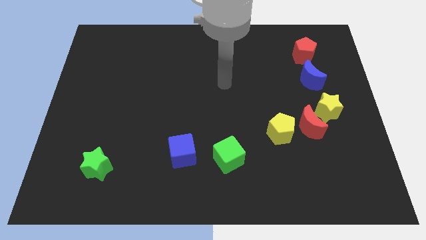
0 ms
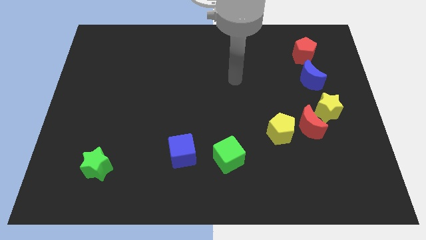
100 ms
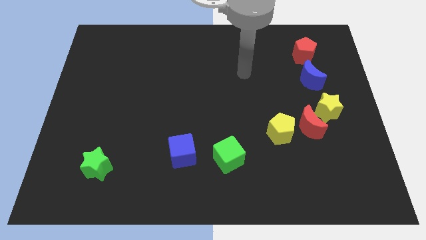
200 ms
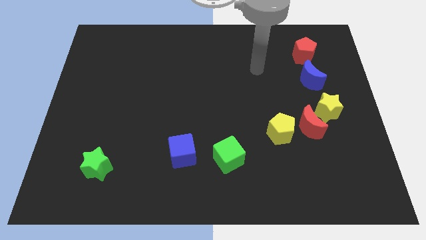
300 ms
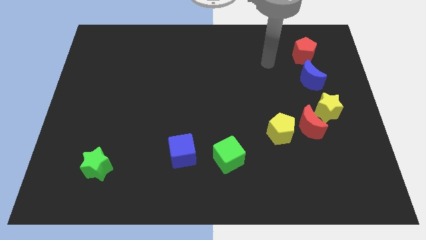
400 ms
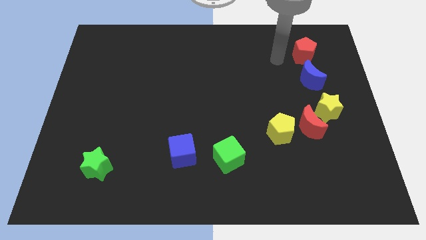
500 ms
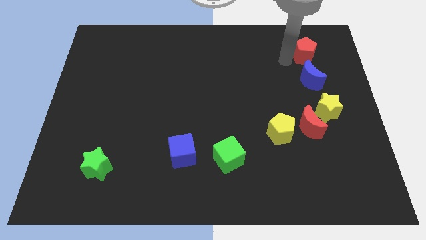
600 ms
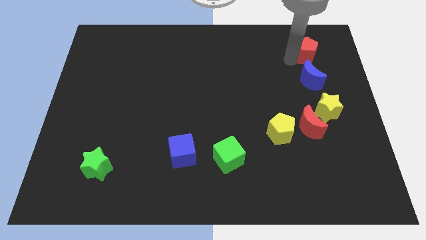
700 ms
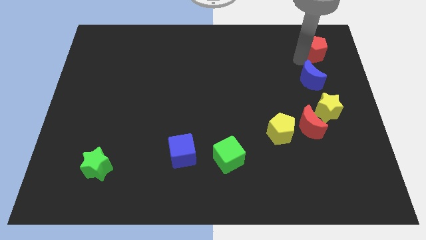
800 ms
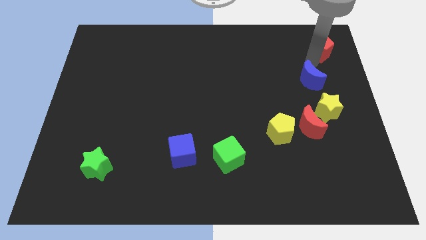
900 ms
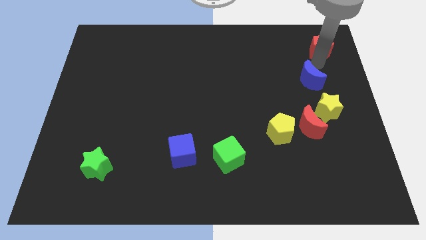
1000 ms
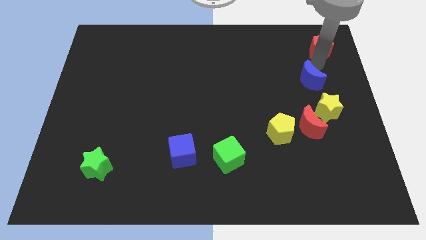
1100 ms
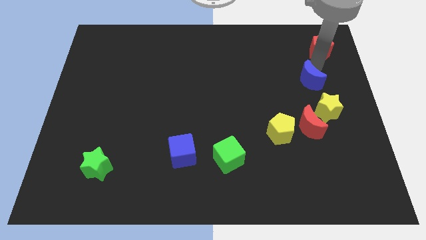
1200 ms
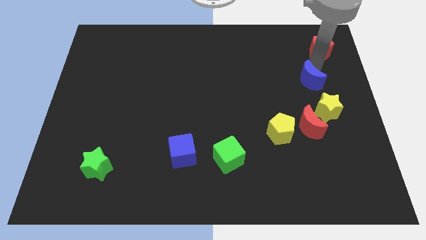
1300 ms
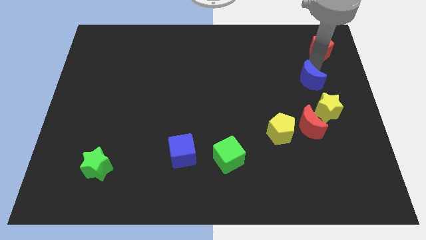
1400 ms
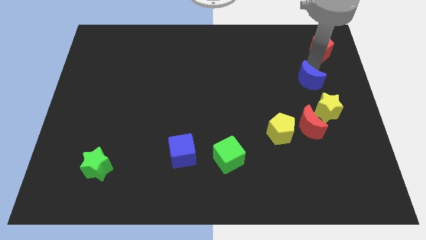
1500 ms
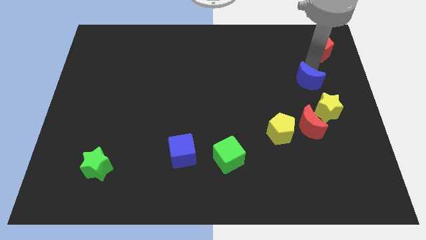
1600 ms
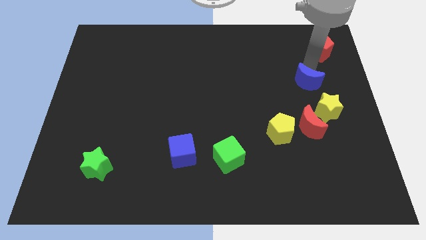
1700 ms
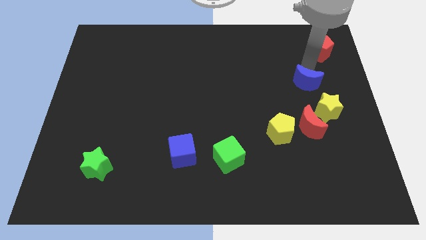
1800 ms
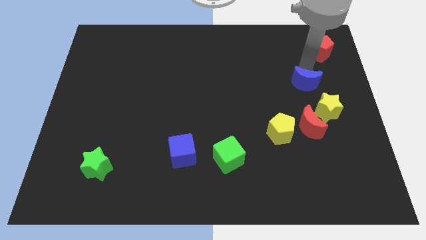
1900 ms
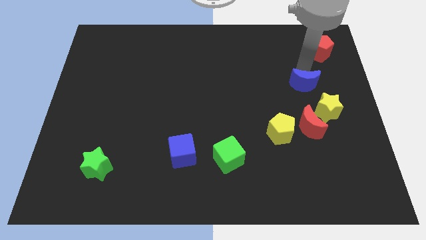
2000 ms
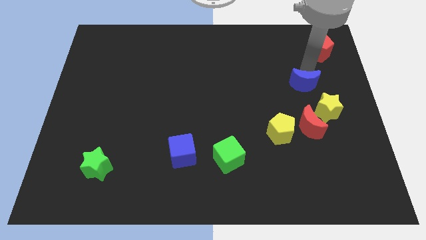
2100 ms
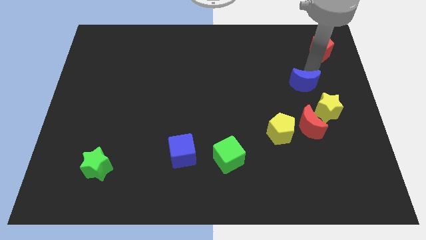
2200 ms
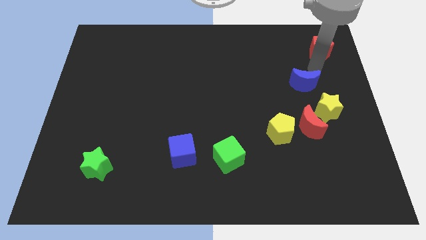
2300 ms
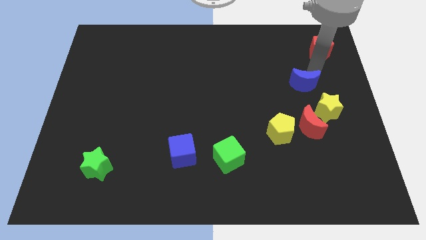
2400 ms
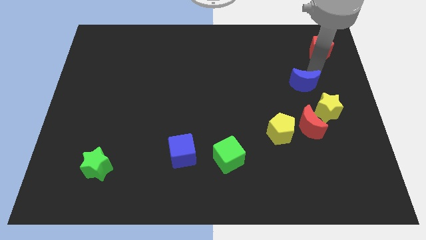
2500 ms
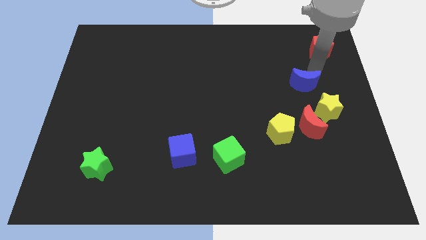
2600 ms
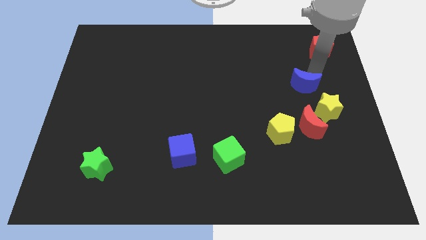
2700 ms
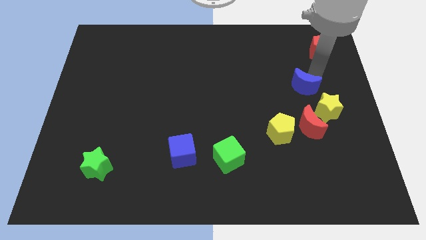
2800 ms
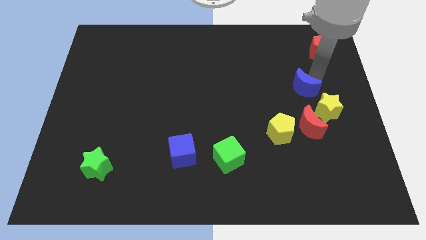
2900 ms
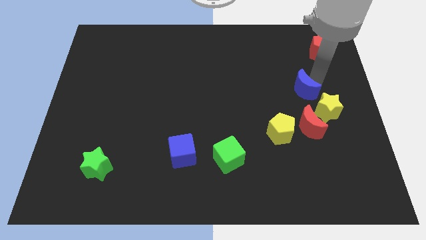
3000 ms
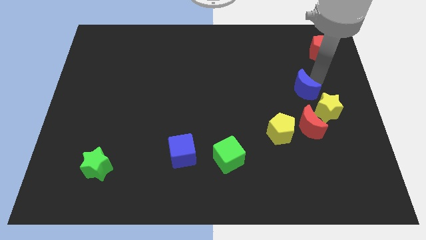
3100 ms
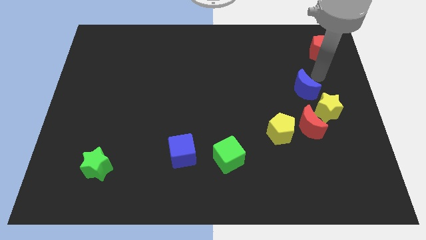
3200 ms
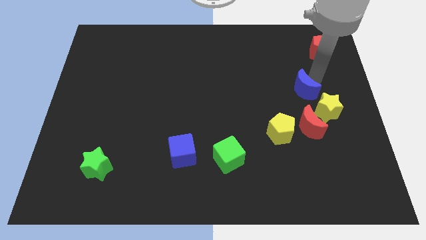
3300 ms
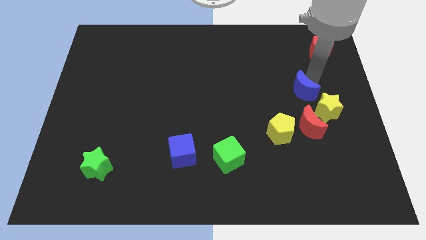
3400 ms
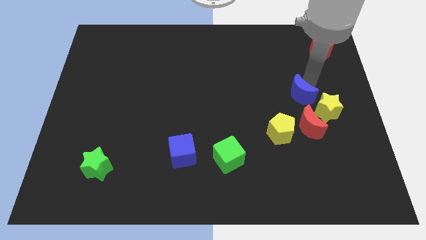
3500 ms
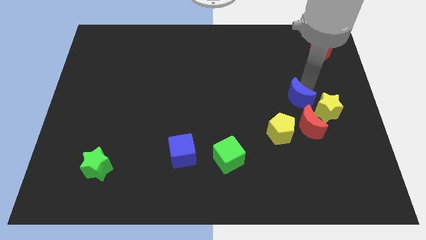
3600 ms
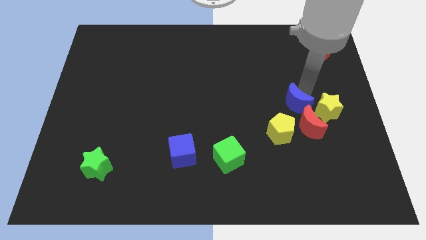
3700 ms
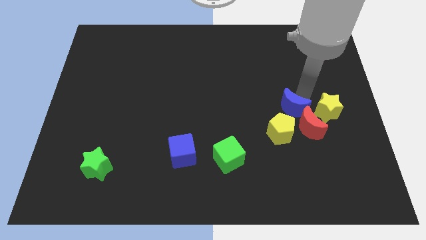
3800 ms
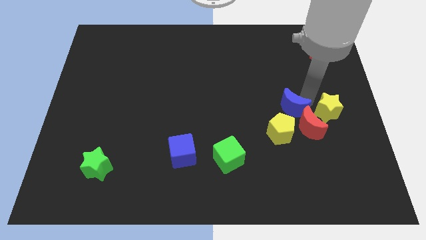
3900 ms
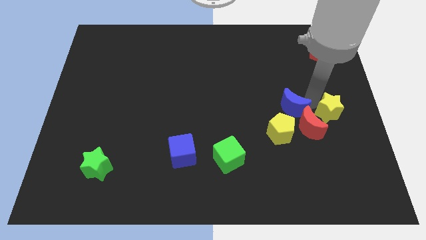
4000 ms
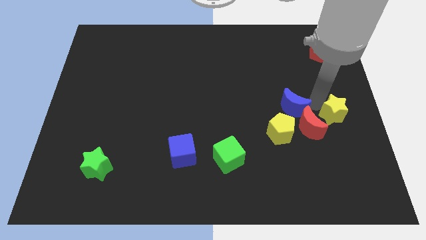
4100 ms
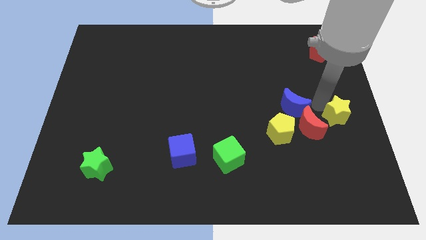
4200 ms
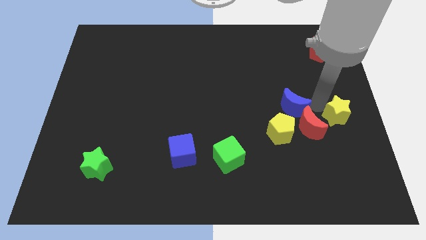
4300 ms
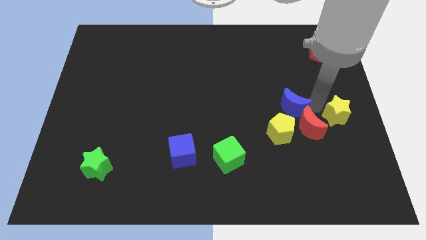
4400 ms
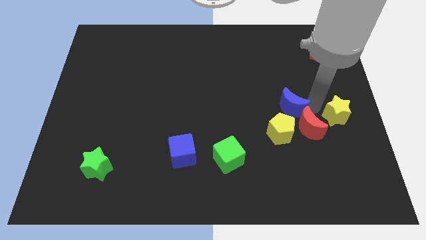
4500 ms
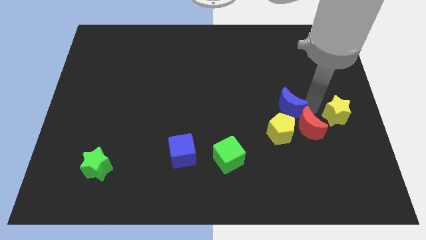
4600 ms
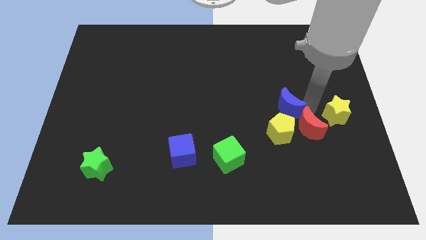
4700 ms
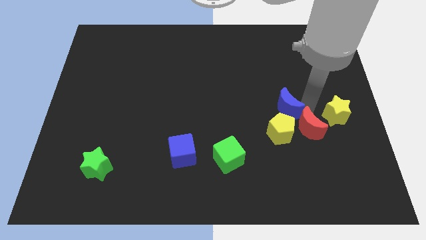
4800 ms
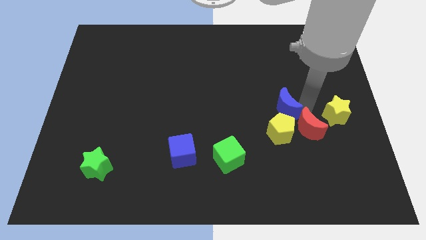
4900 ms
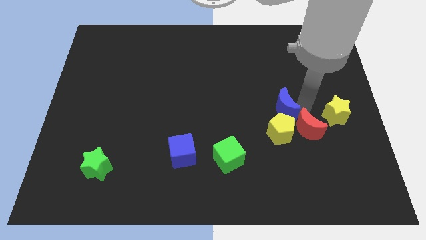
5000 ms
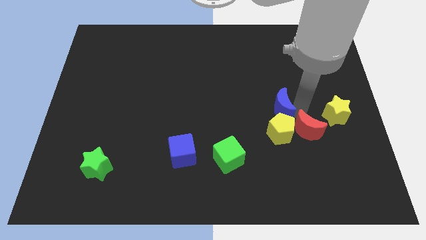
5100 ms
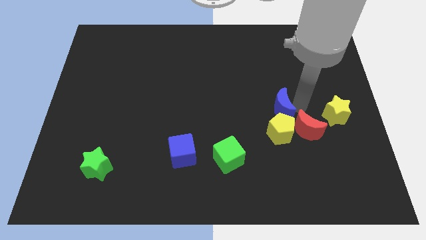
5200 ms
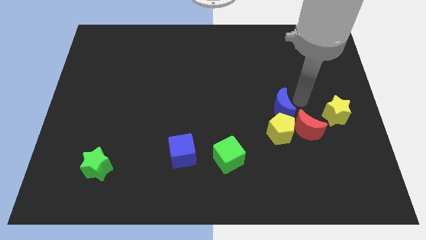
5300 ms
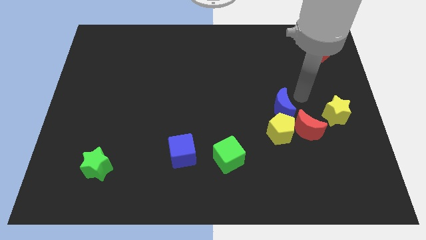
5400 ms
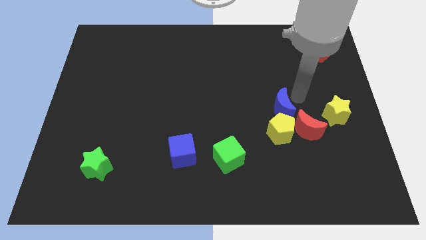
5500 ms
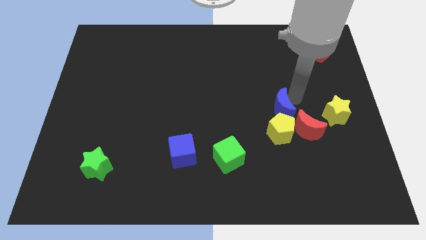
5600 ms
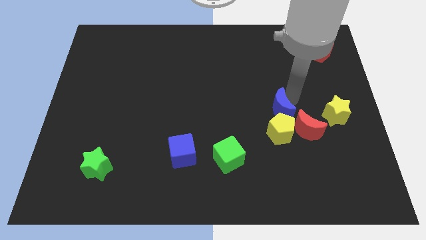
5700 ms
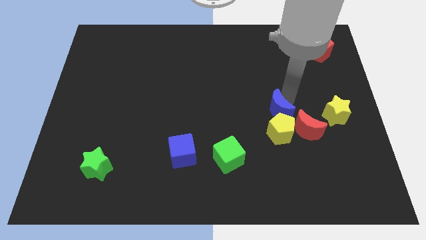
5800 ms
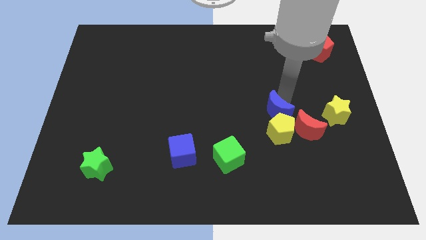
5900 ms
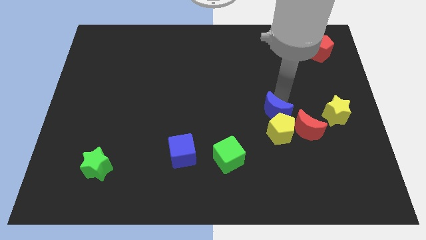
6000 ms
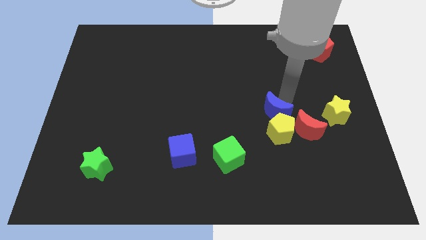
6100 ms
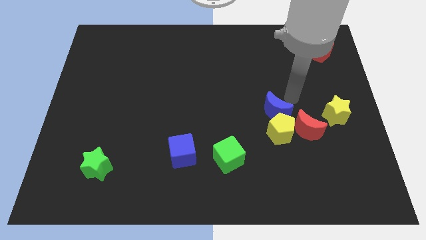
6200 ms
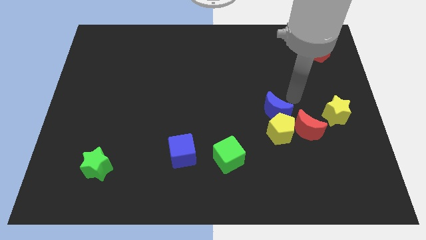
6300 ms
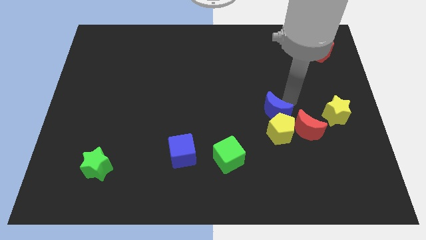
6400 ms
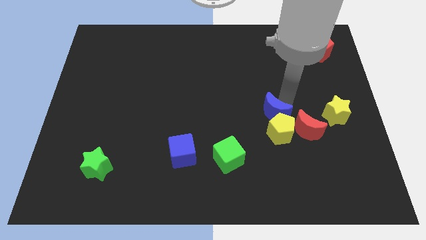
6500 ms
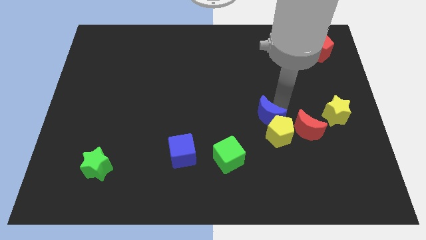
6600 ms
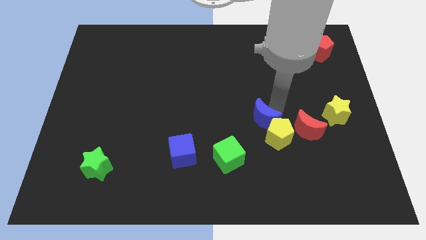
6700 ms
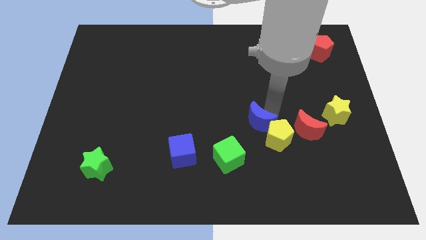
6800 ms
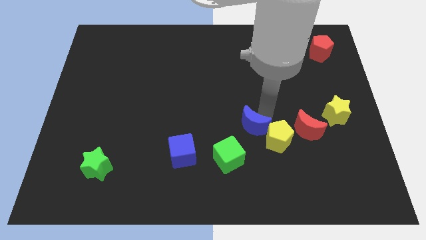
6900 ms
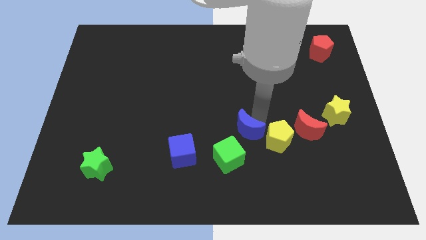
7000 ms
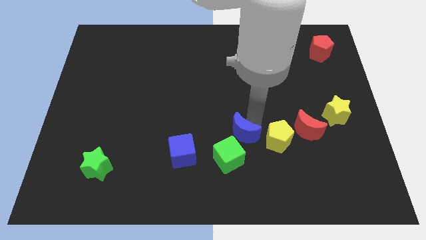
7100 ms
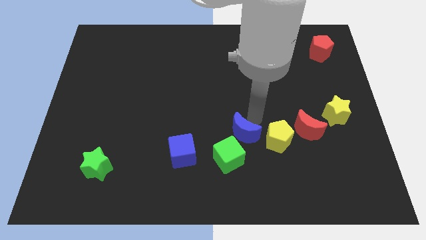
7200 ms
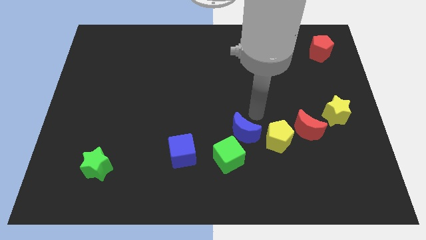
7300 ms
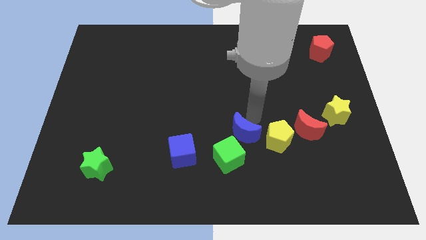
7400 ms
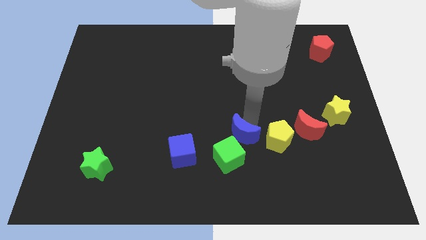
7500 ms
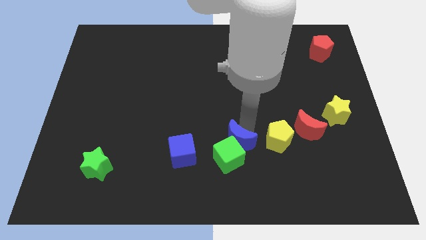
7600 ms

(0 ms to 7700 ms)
move the blue moon next to the green cube
